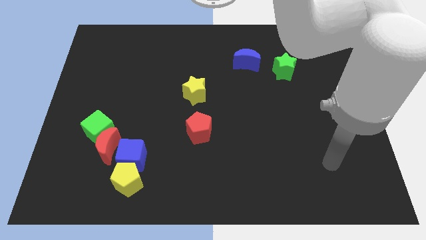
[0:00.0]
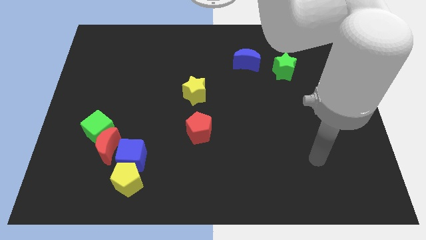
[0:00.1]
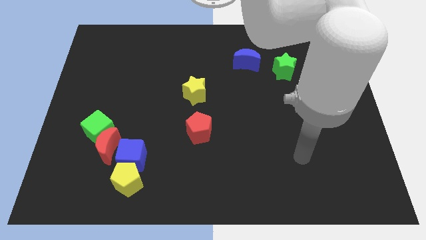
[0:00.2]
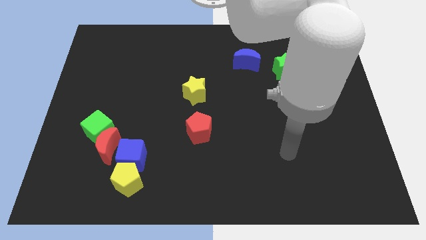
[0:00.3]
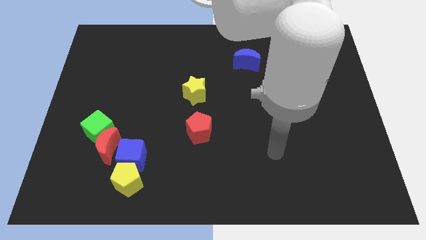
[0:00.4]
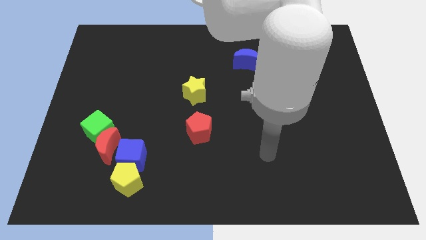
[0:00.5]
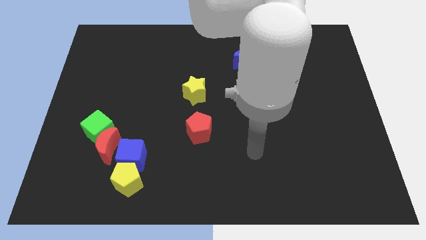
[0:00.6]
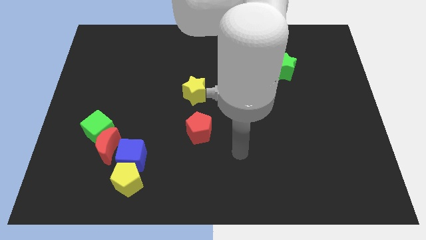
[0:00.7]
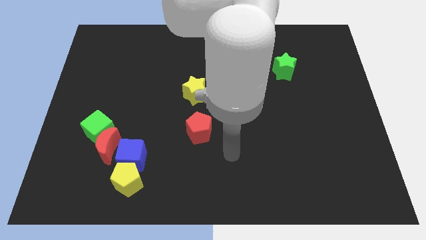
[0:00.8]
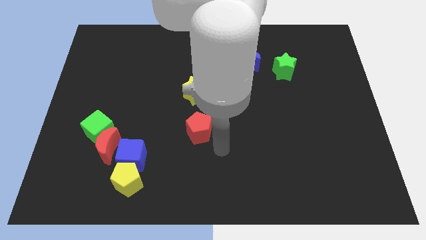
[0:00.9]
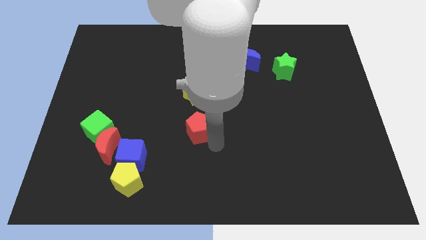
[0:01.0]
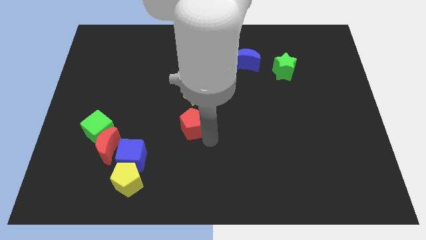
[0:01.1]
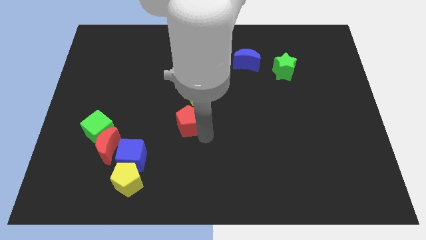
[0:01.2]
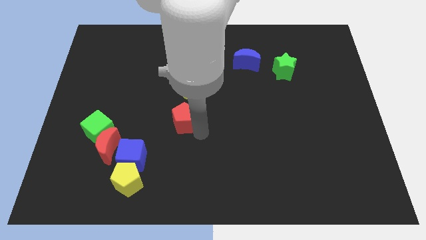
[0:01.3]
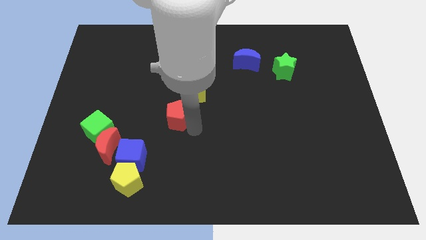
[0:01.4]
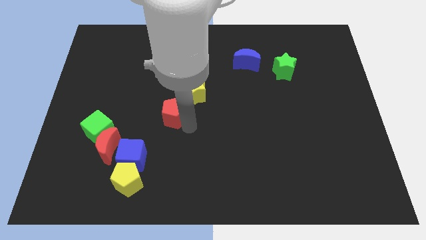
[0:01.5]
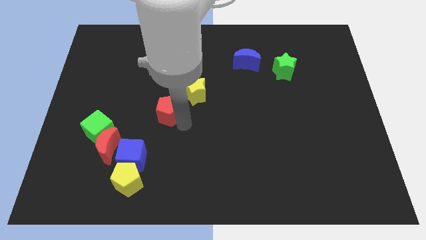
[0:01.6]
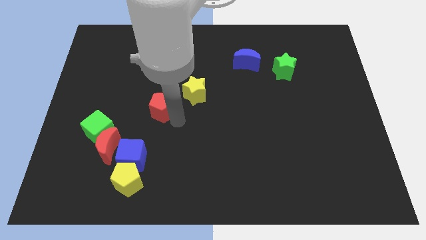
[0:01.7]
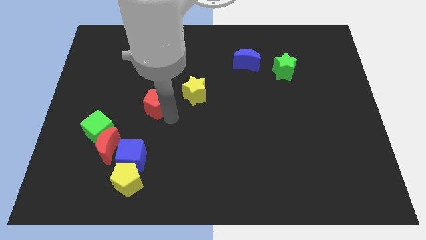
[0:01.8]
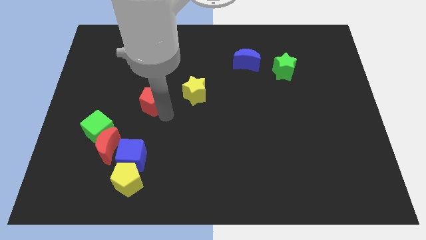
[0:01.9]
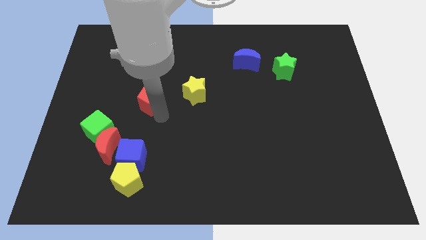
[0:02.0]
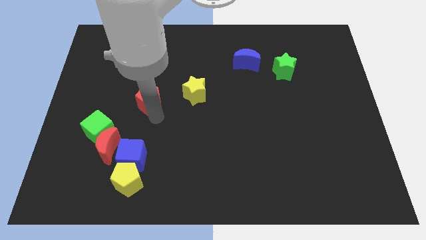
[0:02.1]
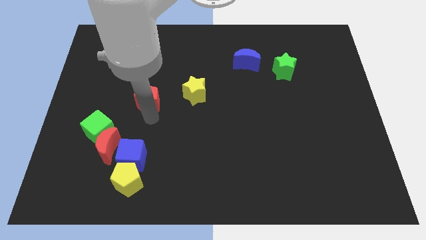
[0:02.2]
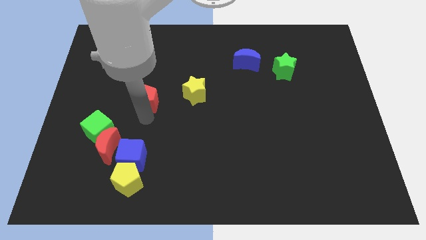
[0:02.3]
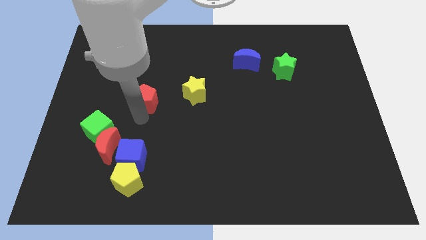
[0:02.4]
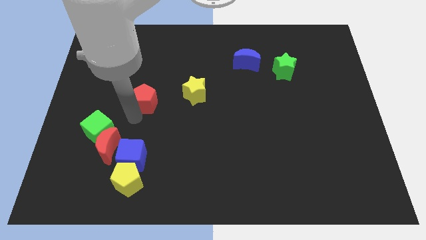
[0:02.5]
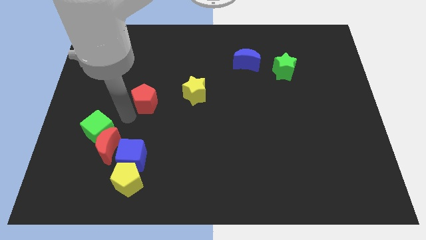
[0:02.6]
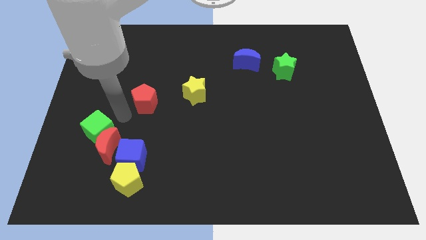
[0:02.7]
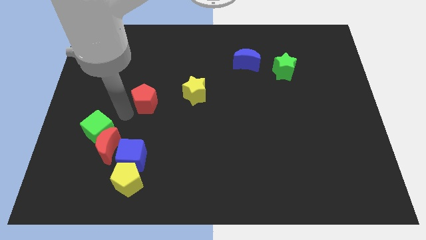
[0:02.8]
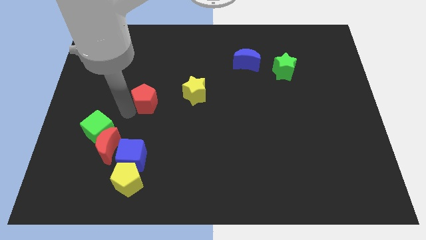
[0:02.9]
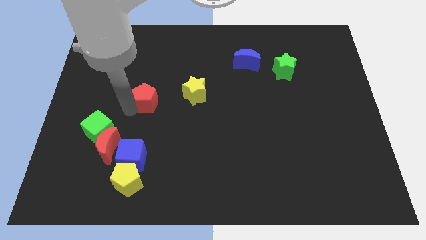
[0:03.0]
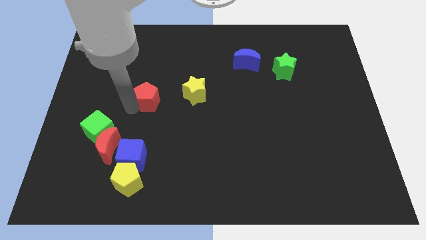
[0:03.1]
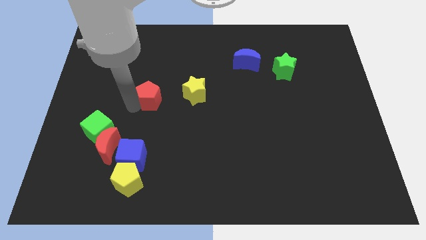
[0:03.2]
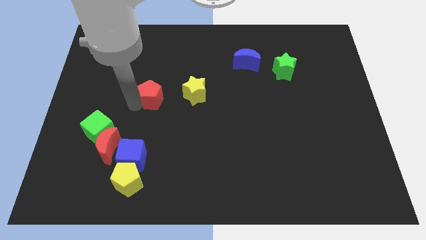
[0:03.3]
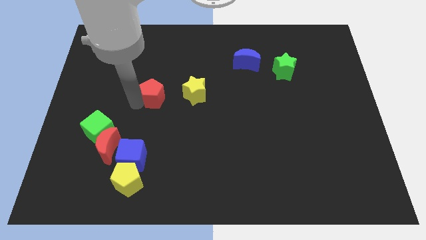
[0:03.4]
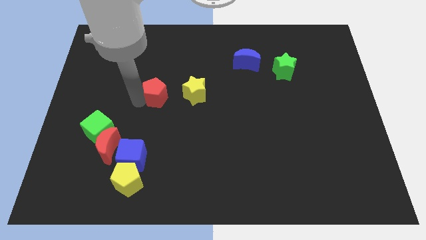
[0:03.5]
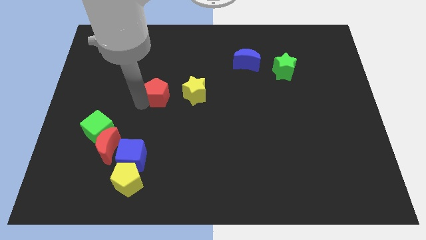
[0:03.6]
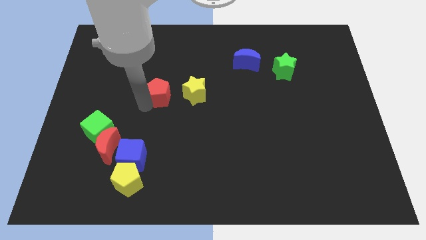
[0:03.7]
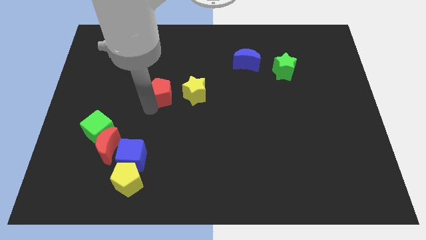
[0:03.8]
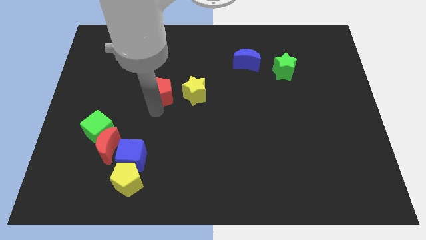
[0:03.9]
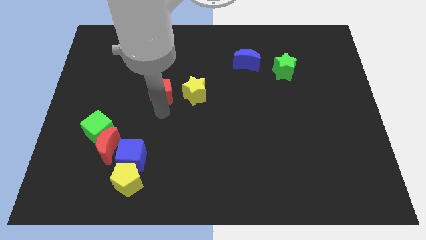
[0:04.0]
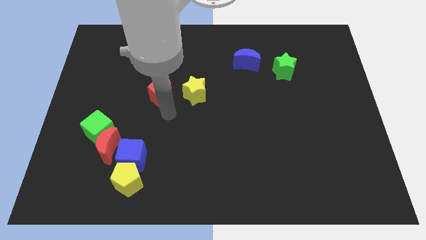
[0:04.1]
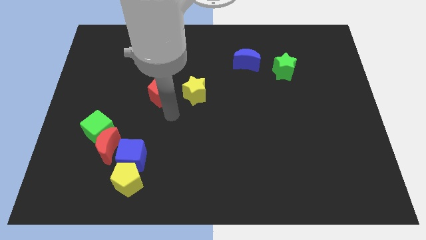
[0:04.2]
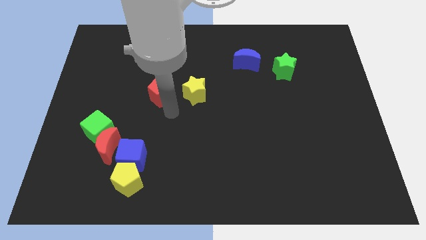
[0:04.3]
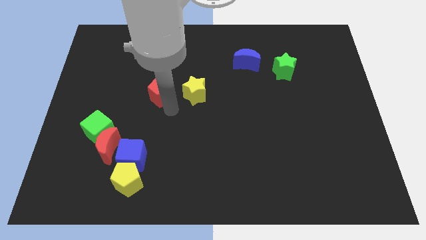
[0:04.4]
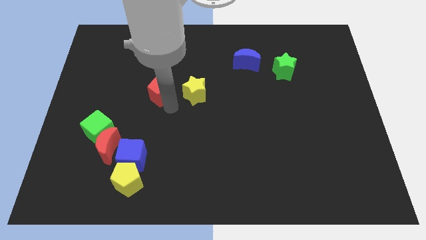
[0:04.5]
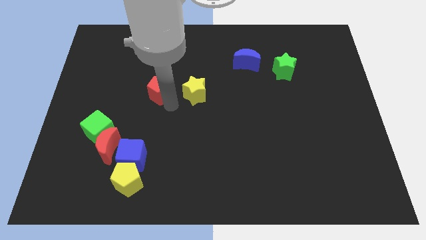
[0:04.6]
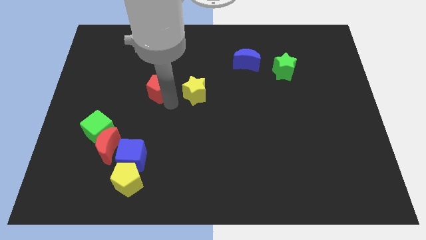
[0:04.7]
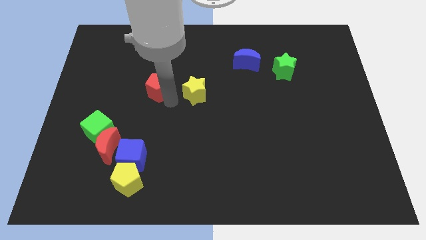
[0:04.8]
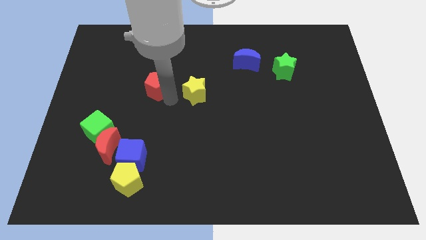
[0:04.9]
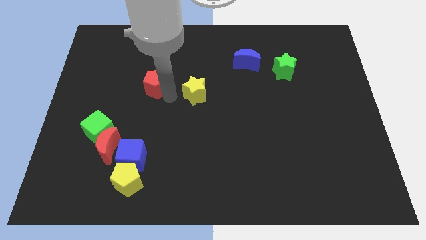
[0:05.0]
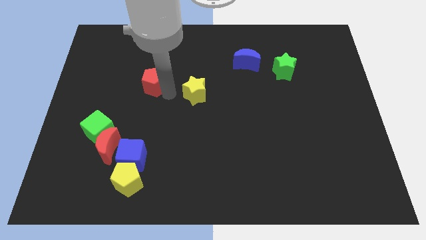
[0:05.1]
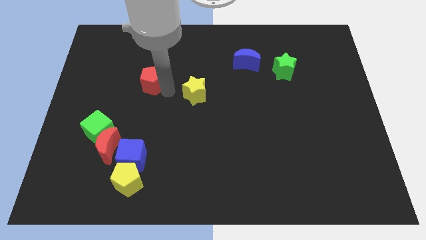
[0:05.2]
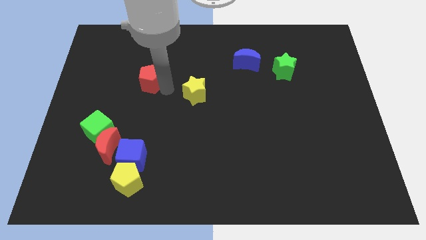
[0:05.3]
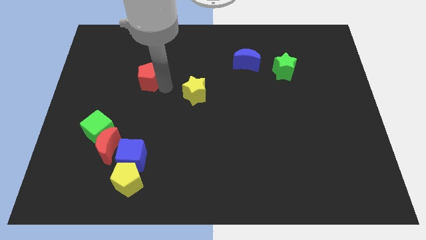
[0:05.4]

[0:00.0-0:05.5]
move the red pentagon upwards and to the left

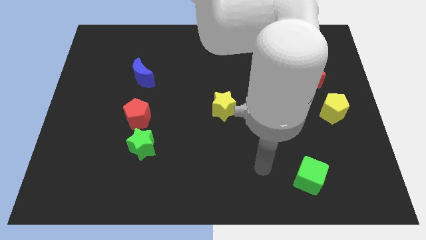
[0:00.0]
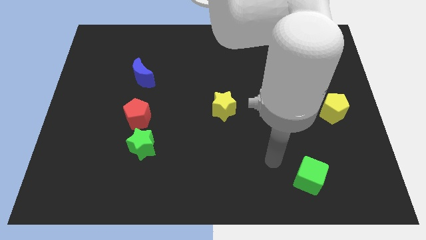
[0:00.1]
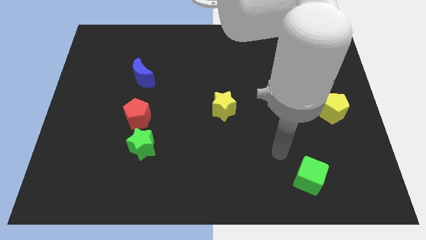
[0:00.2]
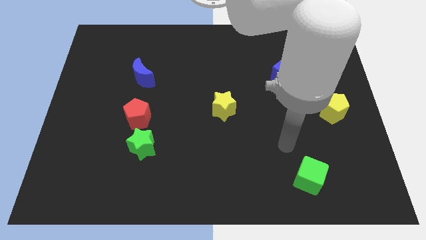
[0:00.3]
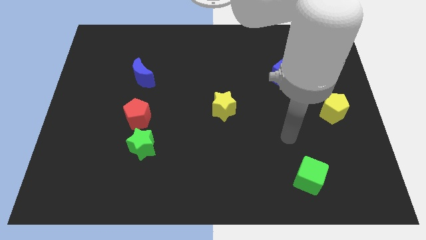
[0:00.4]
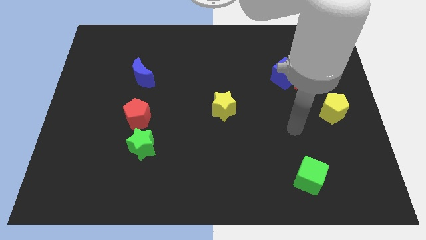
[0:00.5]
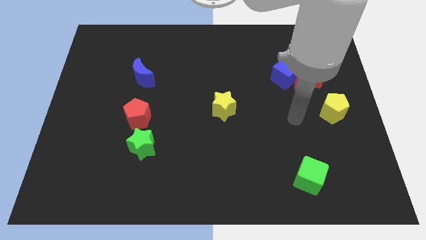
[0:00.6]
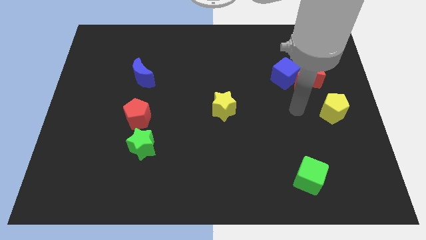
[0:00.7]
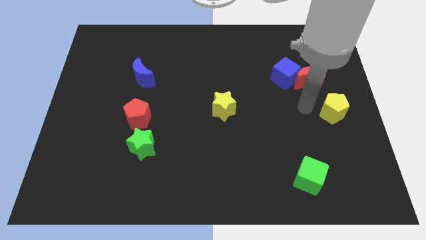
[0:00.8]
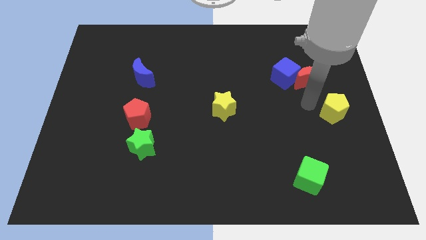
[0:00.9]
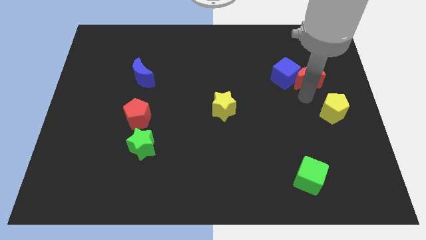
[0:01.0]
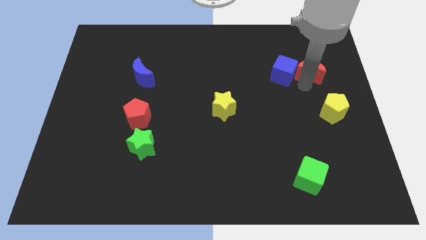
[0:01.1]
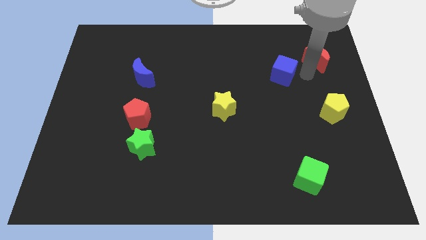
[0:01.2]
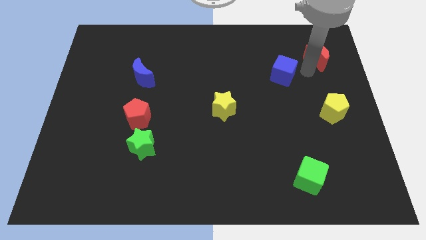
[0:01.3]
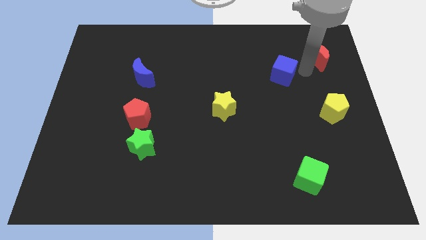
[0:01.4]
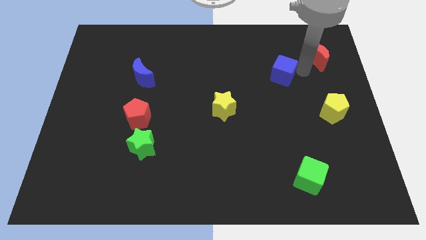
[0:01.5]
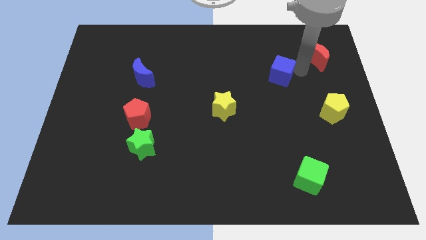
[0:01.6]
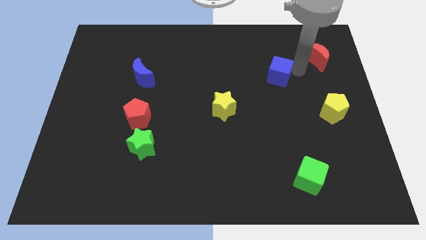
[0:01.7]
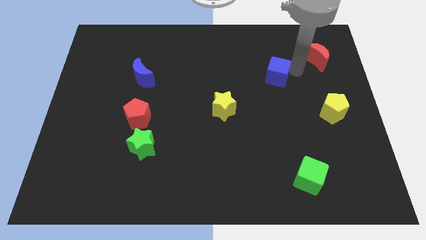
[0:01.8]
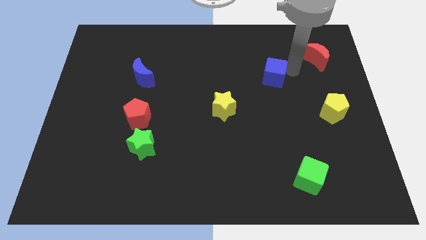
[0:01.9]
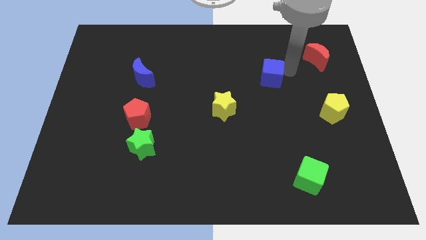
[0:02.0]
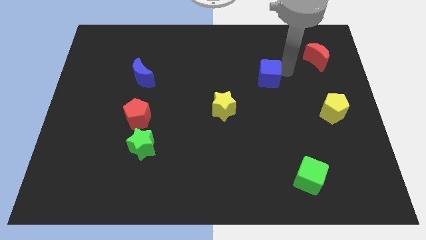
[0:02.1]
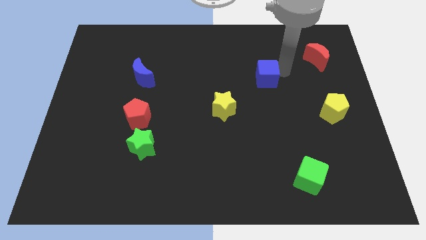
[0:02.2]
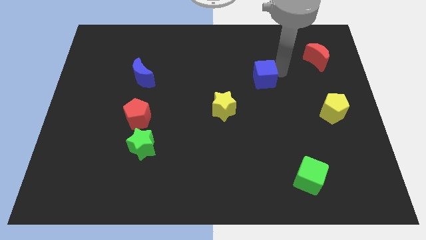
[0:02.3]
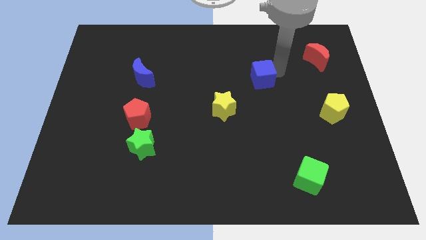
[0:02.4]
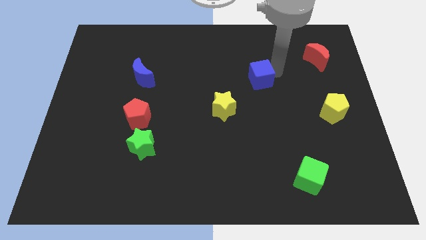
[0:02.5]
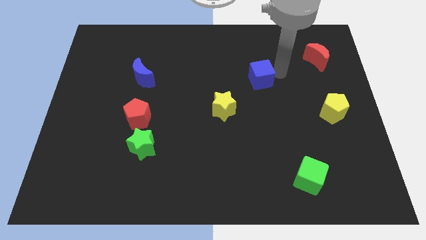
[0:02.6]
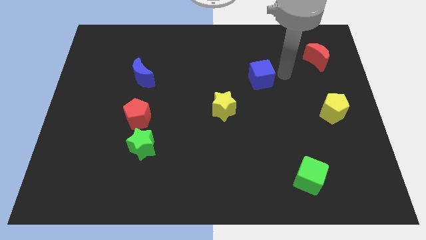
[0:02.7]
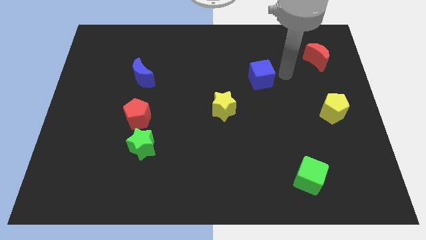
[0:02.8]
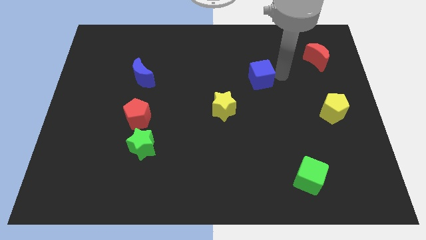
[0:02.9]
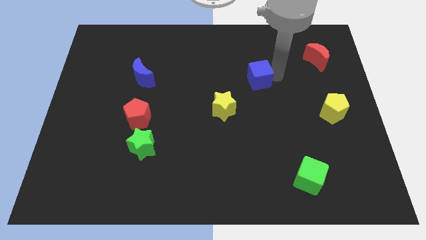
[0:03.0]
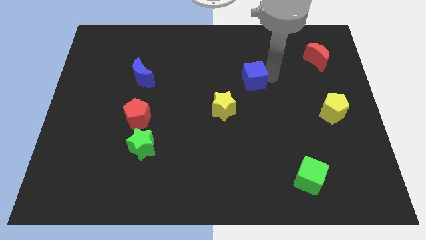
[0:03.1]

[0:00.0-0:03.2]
push the blue cube to the left a little
